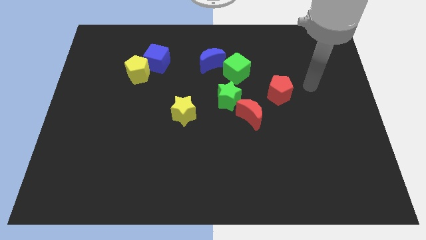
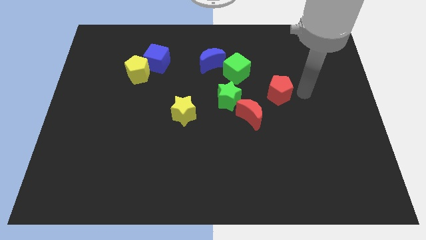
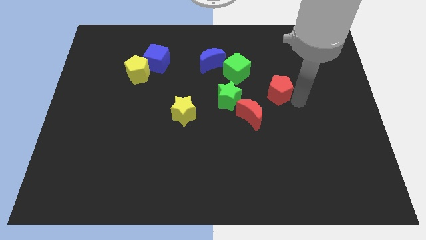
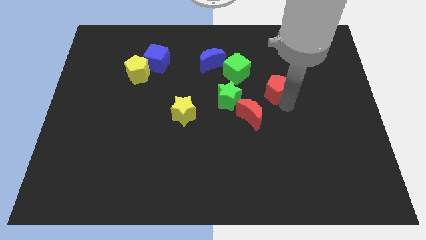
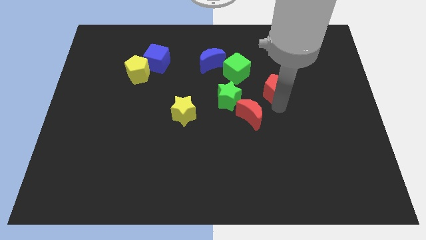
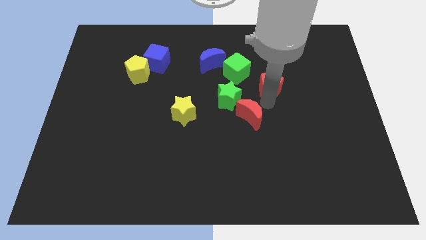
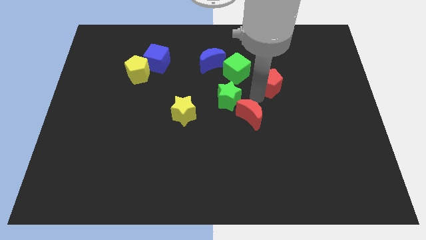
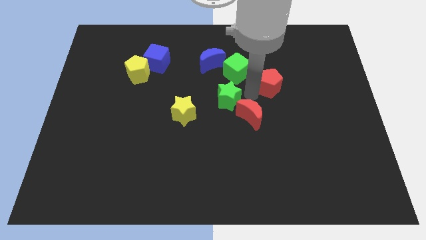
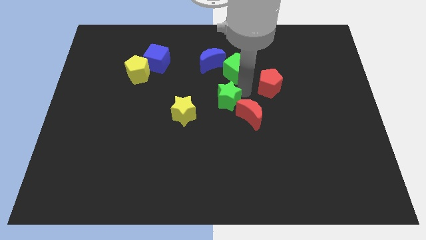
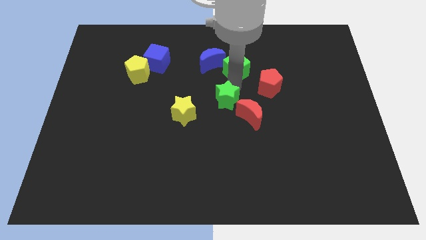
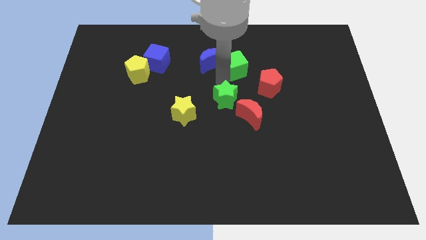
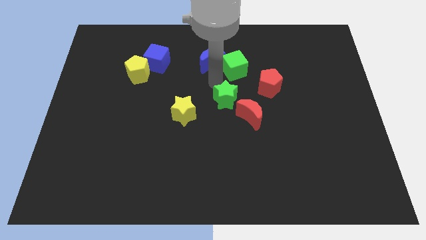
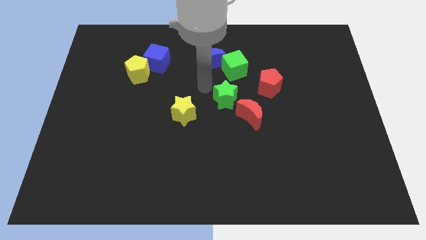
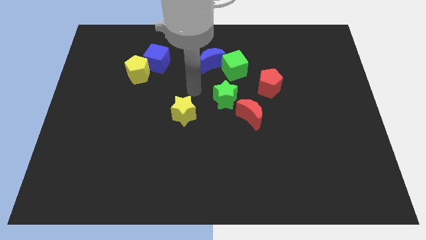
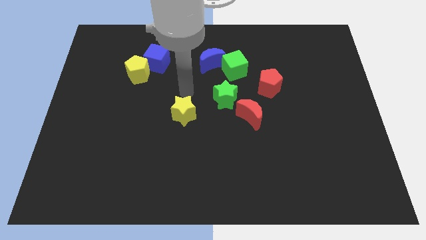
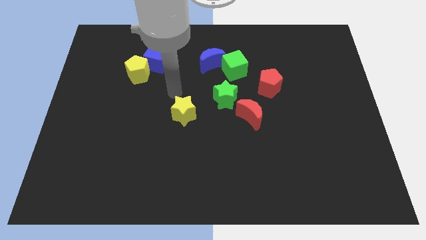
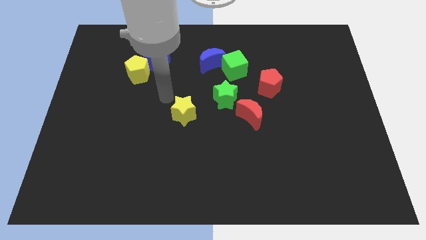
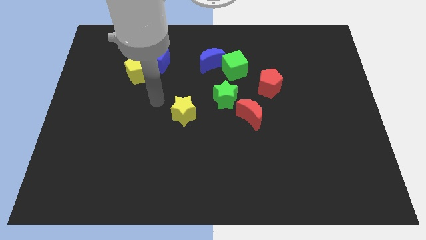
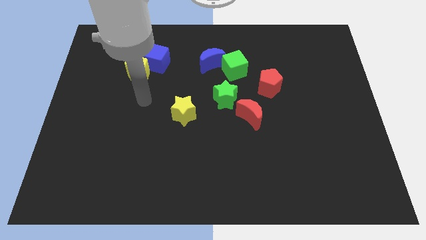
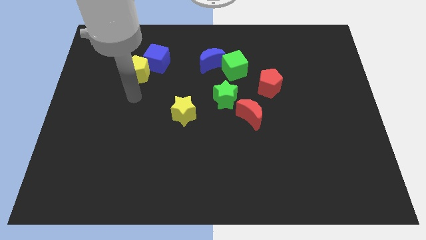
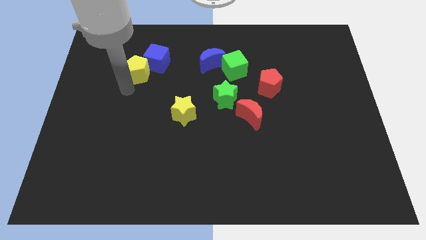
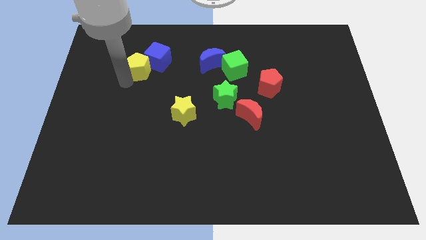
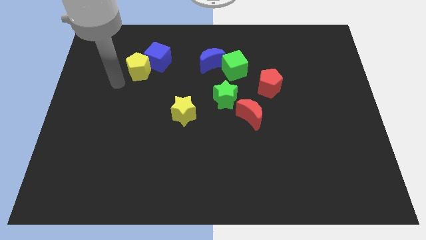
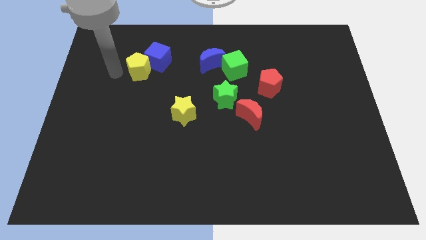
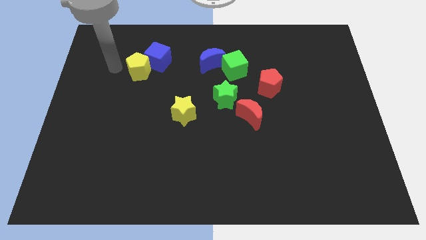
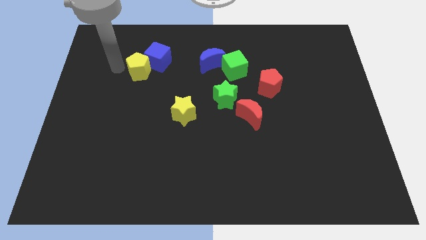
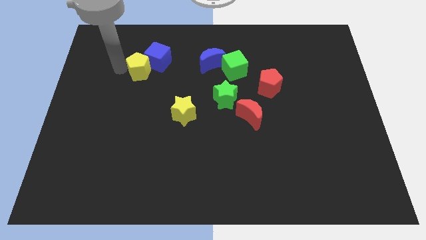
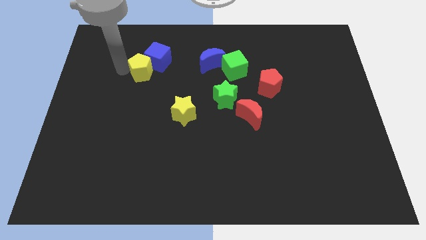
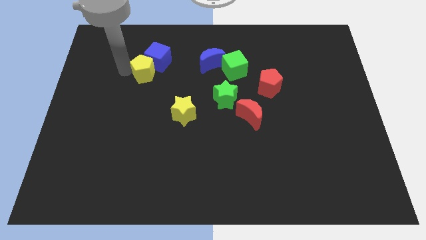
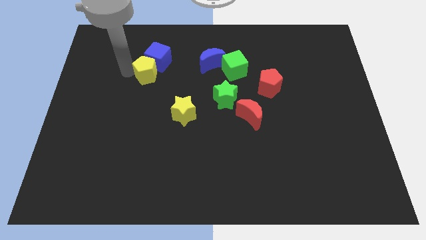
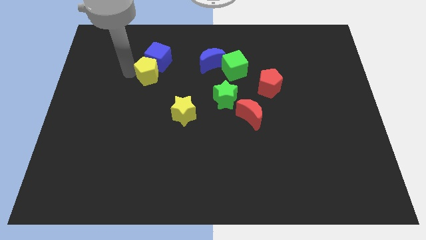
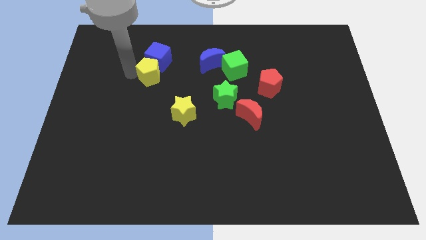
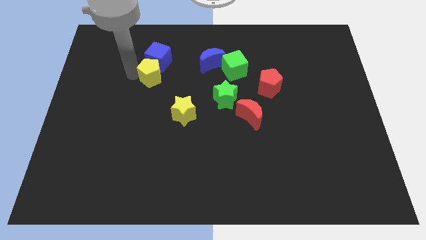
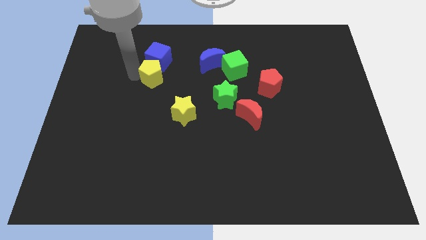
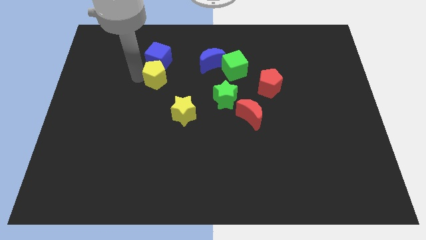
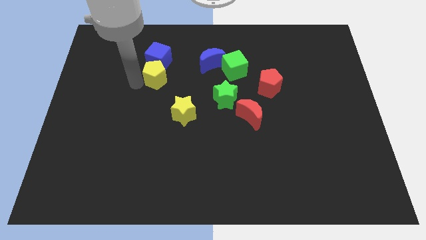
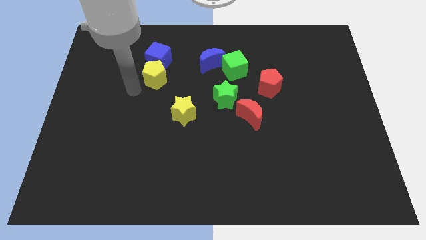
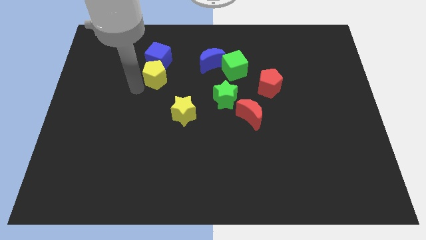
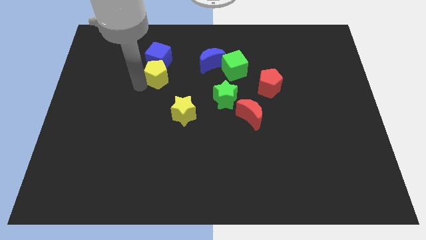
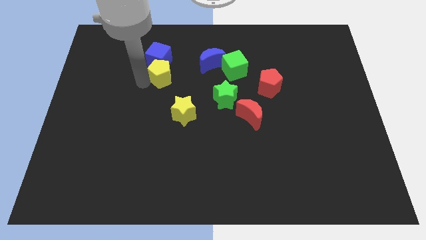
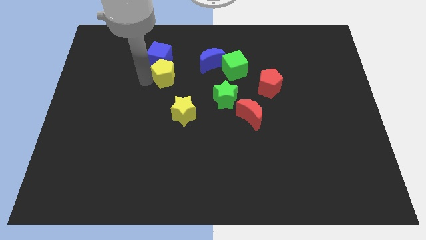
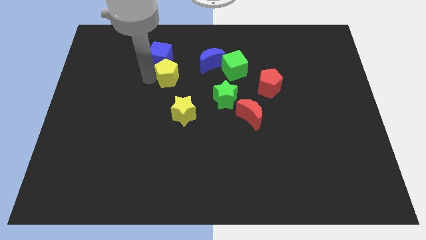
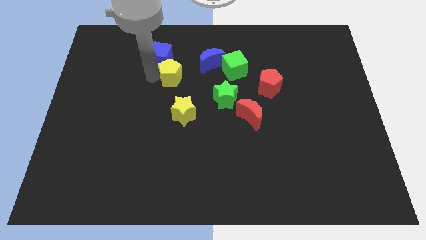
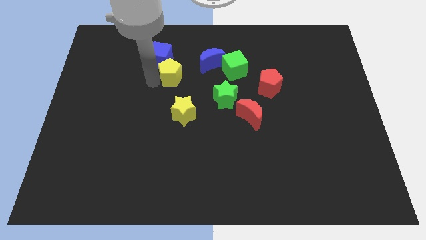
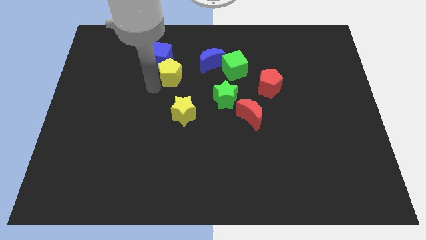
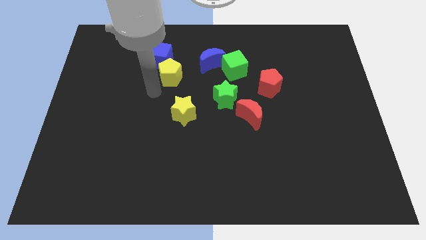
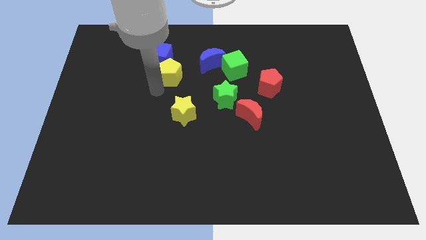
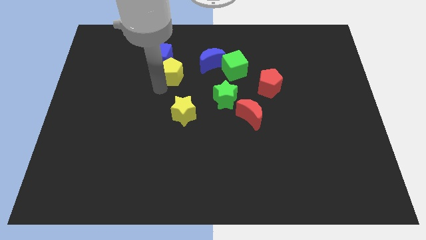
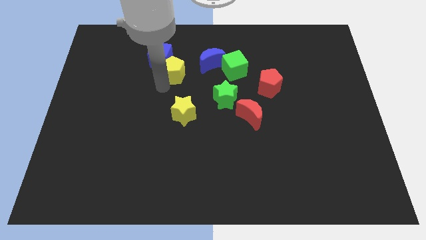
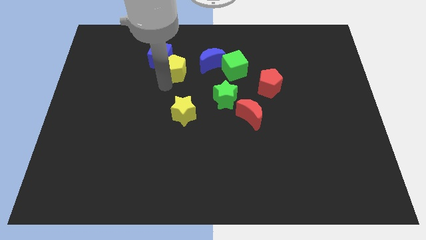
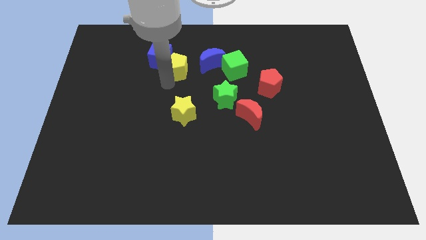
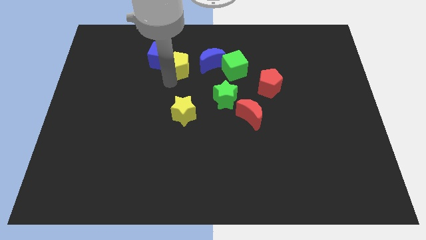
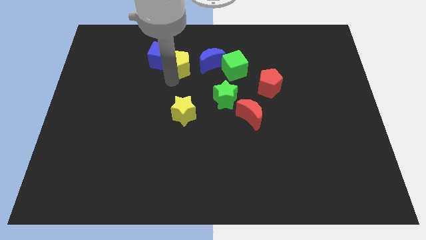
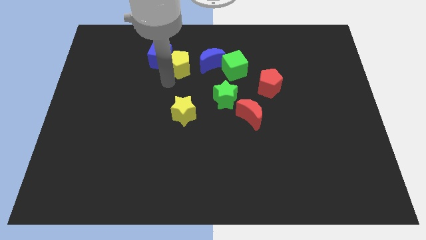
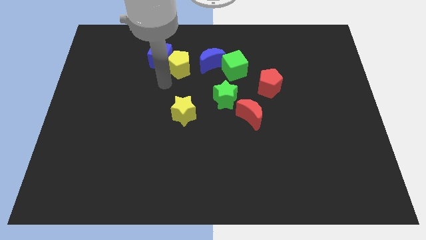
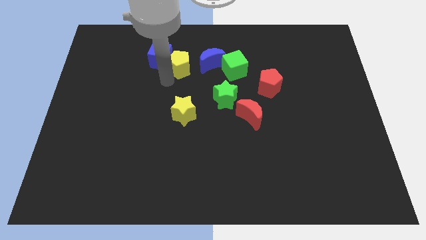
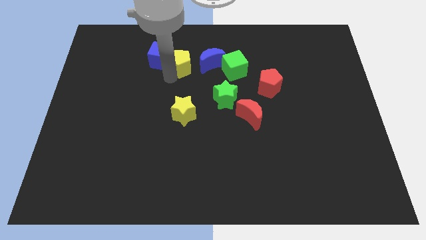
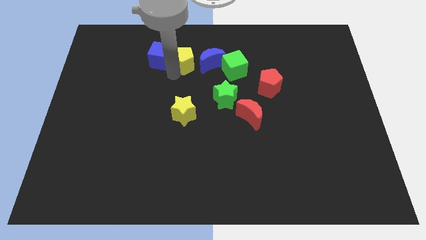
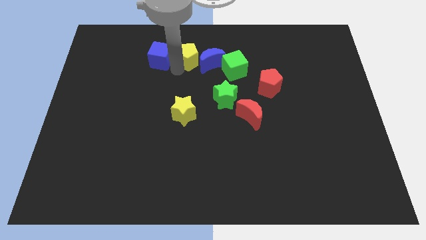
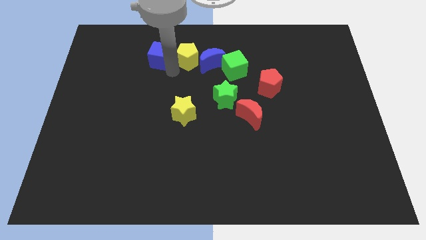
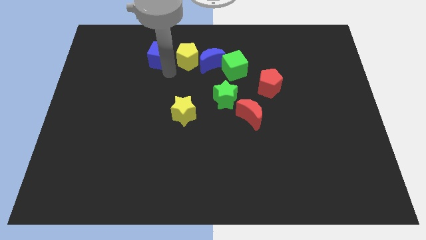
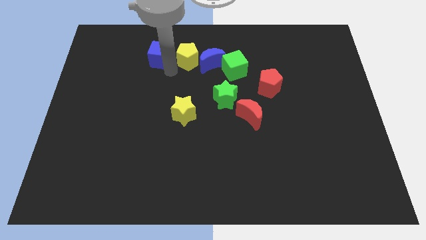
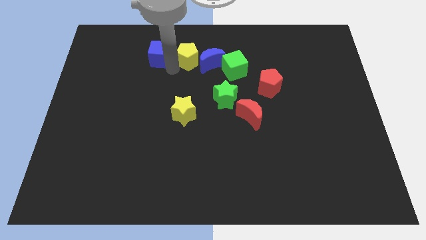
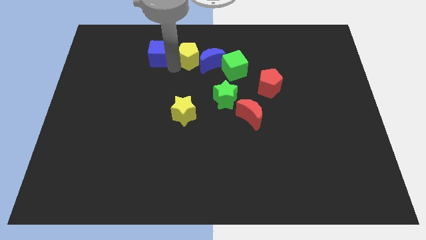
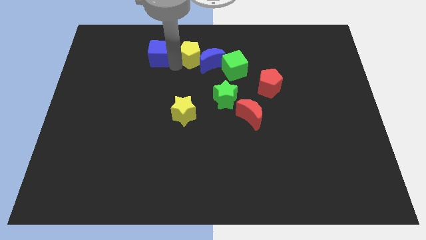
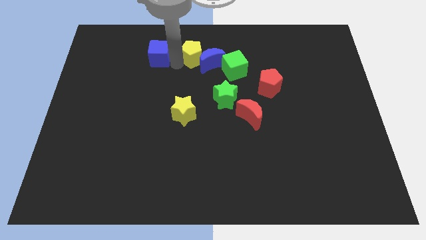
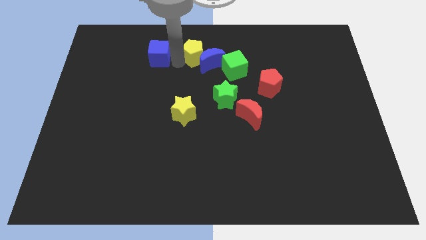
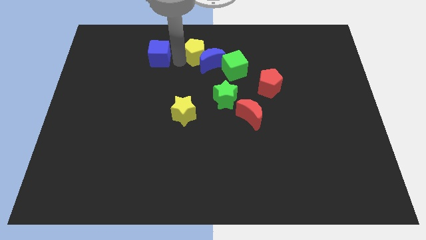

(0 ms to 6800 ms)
move the yellow pentagon to the top side

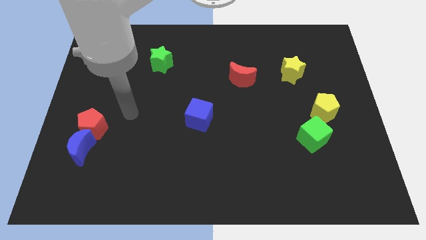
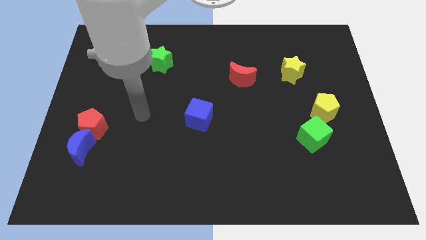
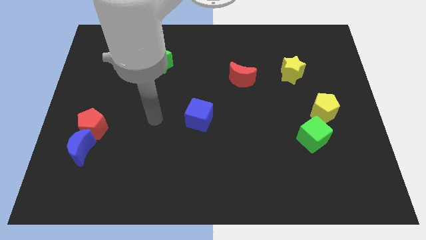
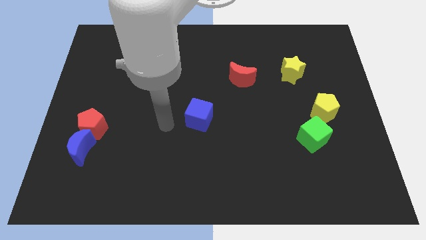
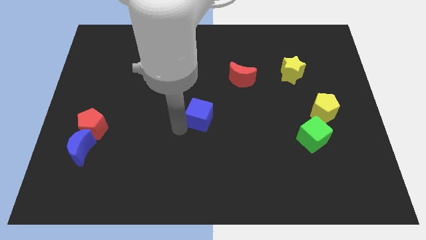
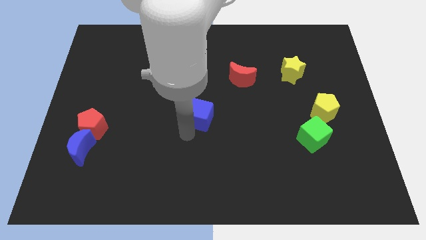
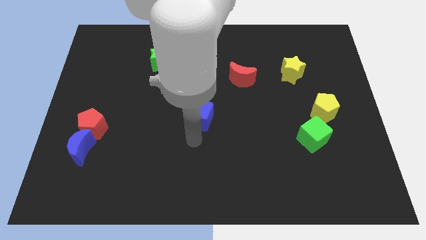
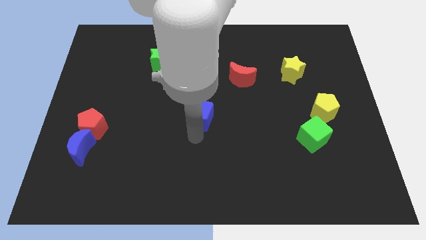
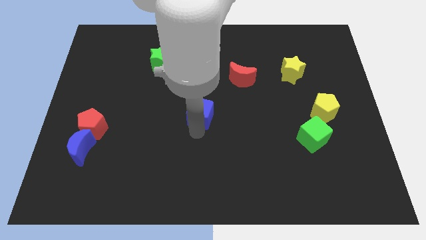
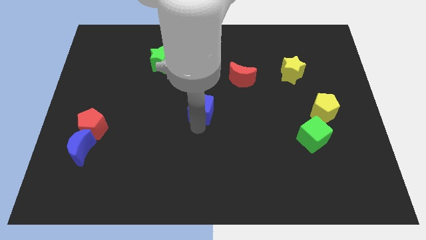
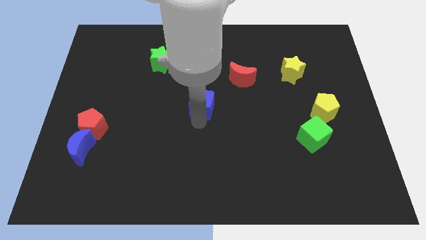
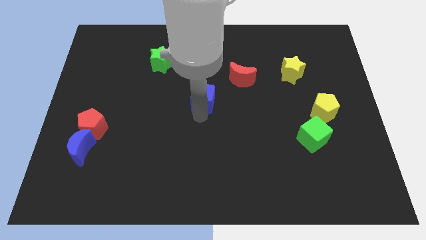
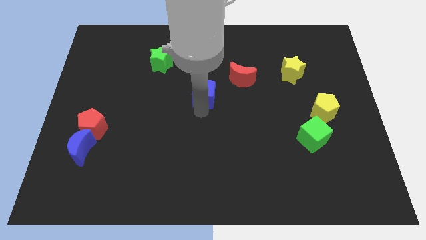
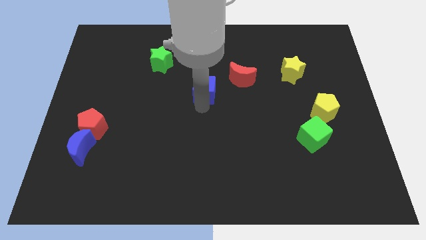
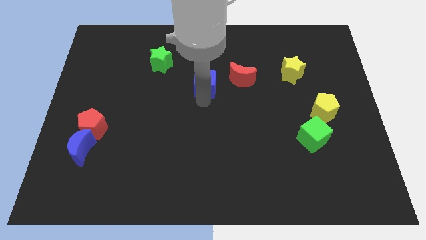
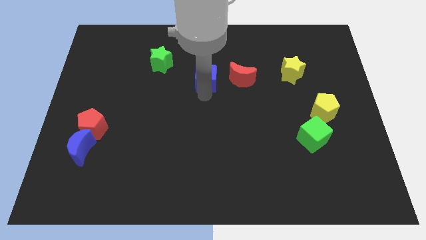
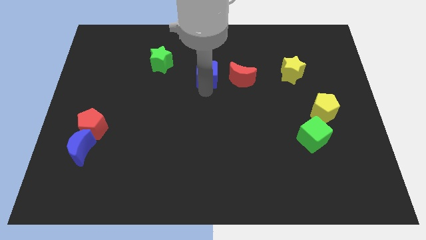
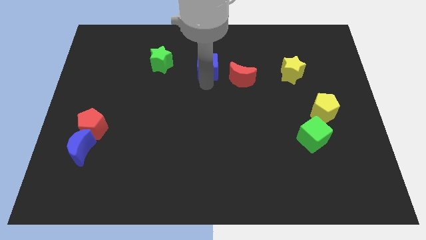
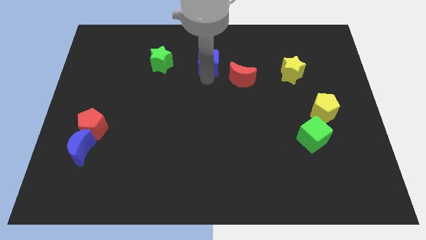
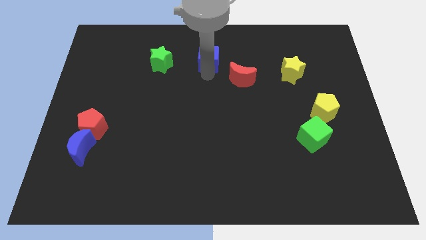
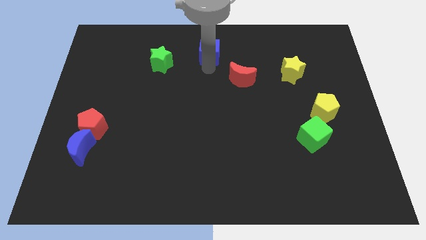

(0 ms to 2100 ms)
put the blue cube to the top side
